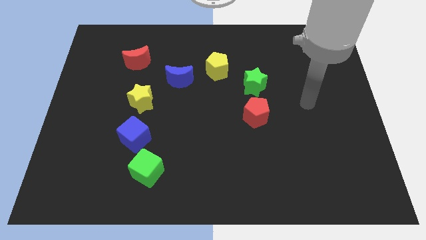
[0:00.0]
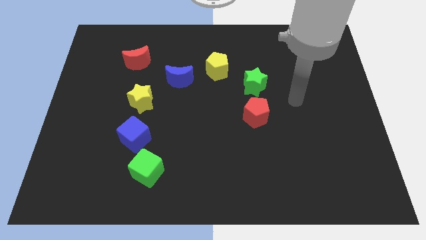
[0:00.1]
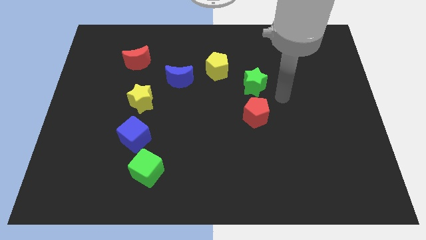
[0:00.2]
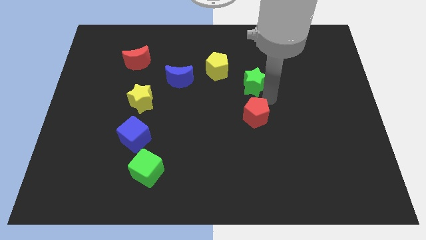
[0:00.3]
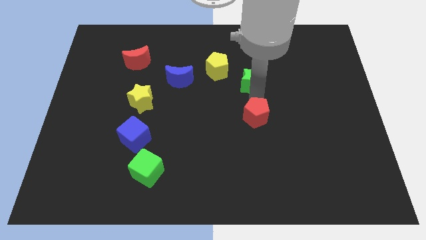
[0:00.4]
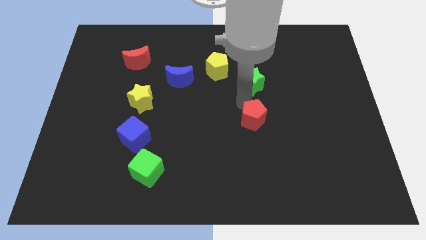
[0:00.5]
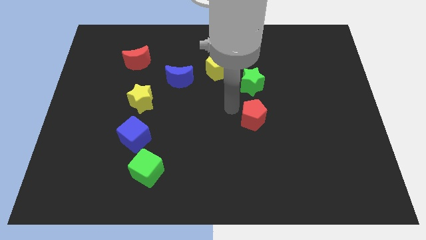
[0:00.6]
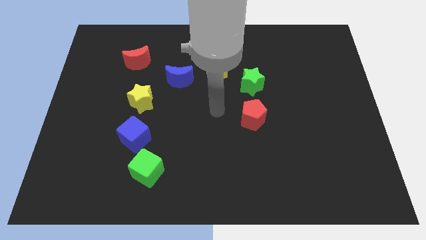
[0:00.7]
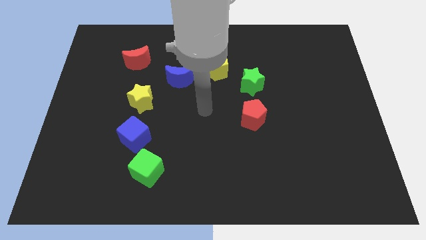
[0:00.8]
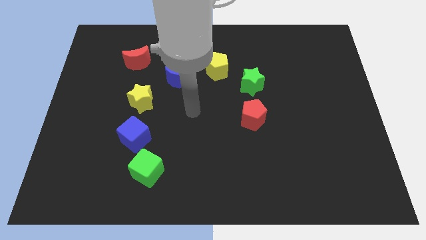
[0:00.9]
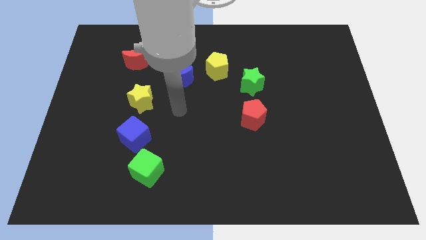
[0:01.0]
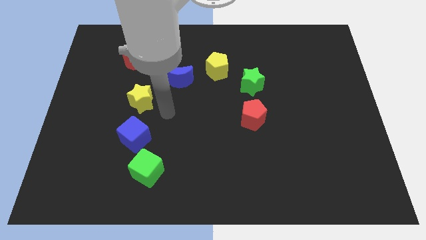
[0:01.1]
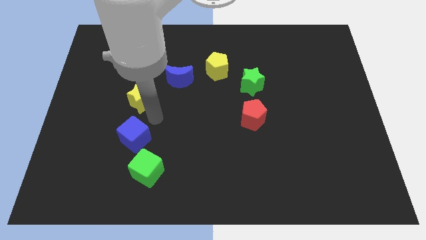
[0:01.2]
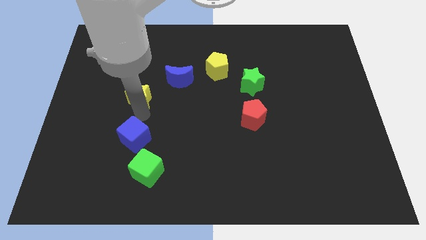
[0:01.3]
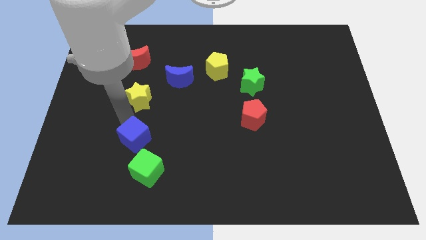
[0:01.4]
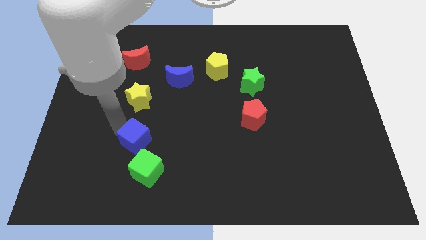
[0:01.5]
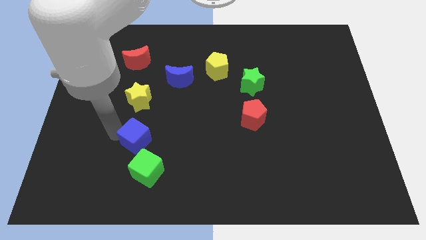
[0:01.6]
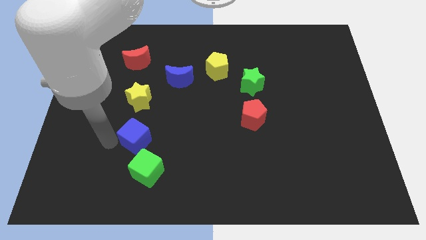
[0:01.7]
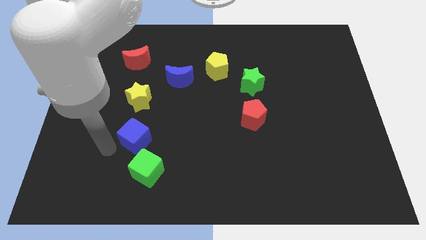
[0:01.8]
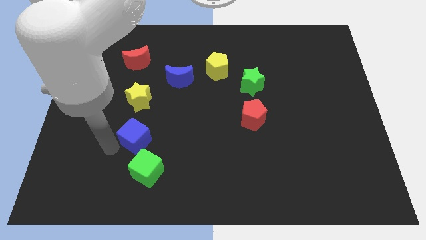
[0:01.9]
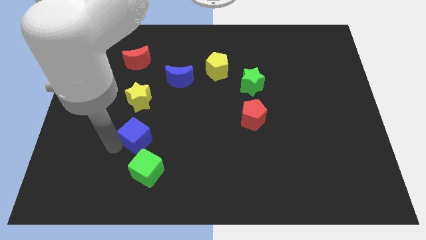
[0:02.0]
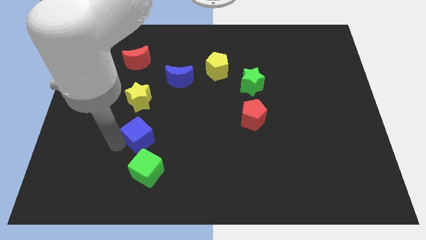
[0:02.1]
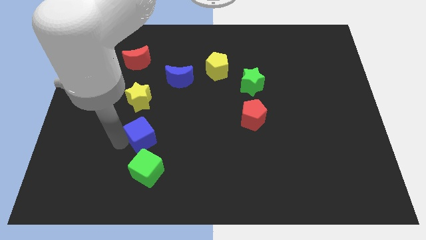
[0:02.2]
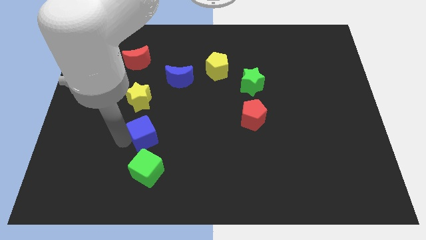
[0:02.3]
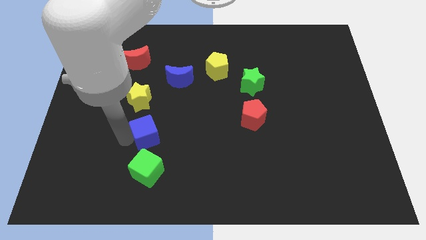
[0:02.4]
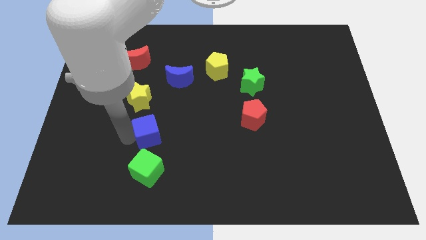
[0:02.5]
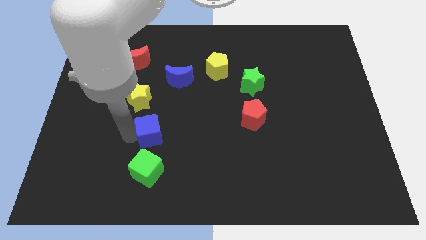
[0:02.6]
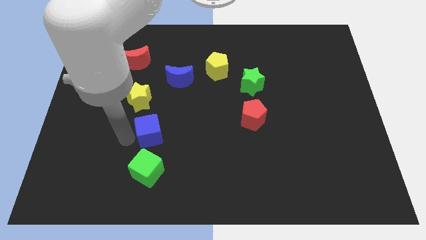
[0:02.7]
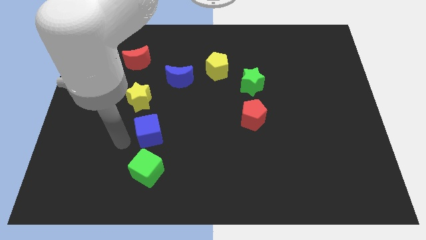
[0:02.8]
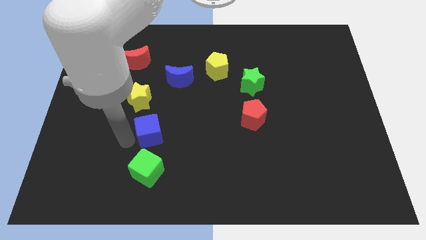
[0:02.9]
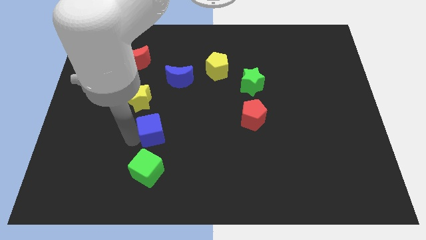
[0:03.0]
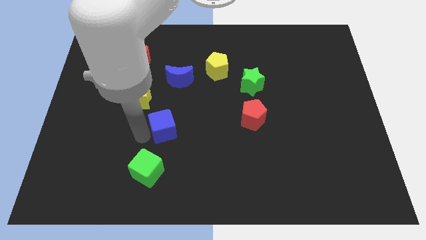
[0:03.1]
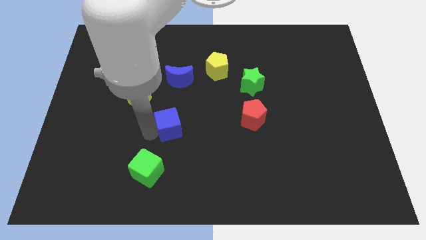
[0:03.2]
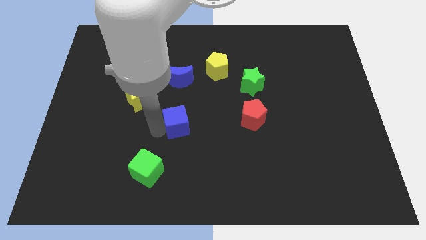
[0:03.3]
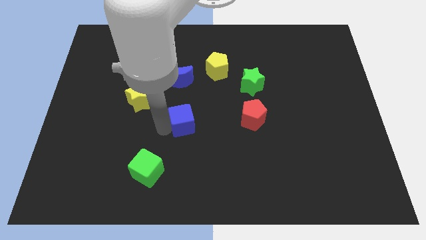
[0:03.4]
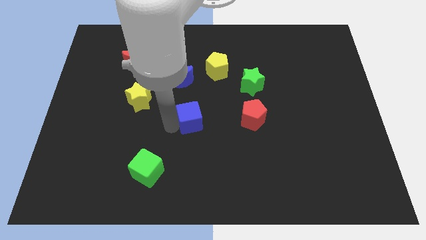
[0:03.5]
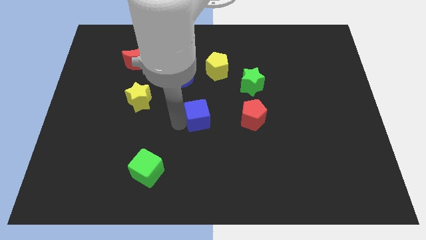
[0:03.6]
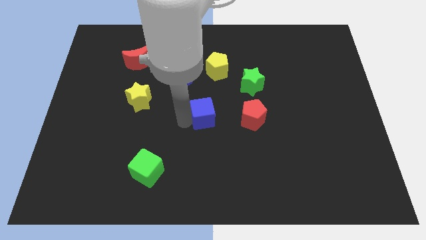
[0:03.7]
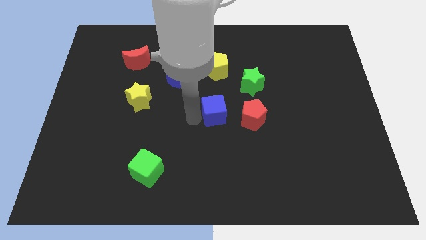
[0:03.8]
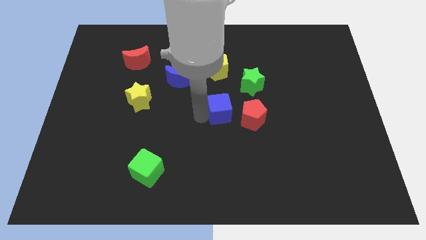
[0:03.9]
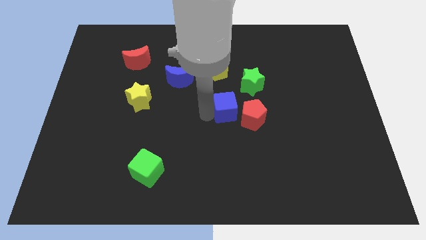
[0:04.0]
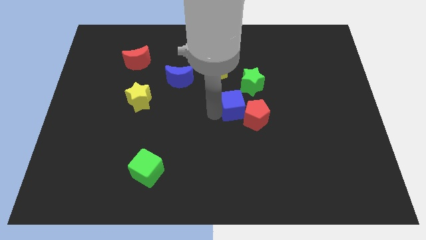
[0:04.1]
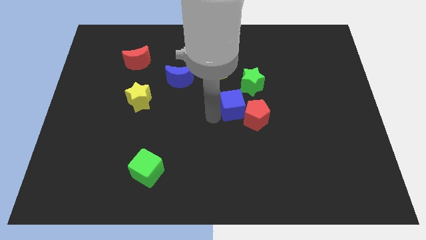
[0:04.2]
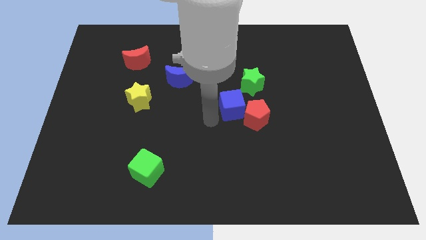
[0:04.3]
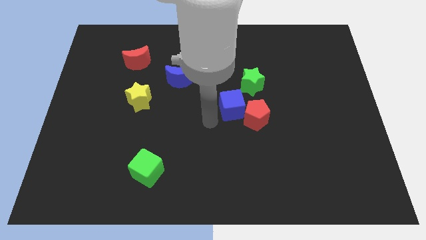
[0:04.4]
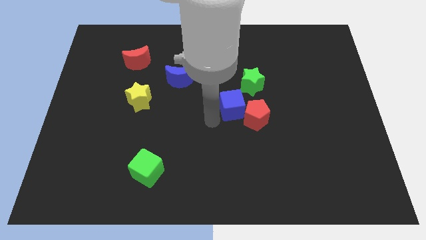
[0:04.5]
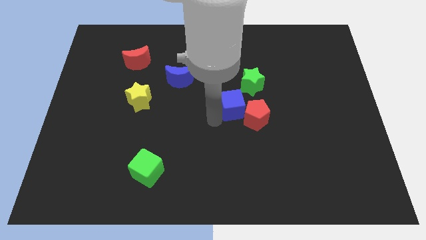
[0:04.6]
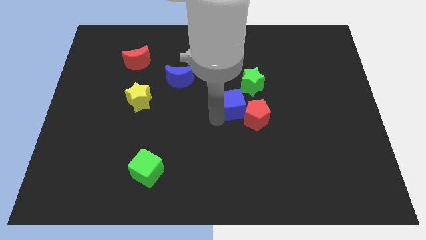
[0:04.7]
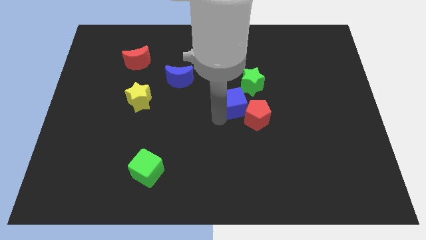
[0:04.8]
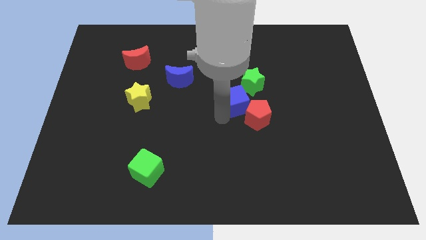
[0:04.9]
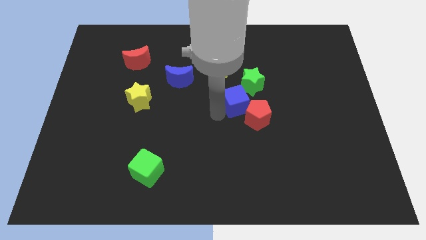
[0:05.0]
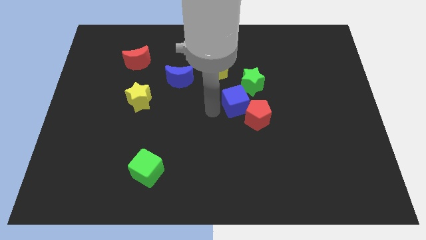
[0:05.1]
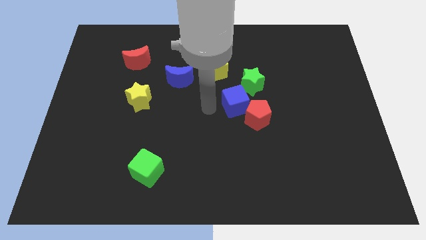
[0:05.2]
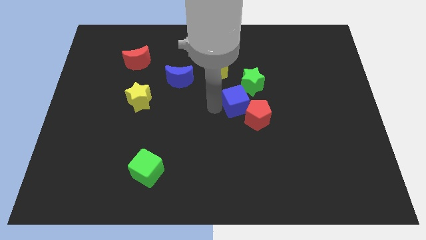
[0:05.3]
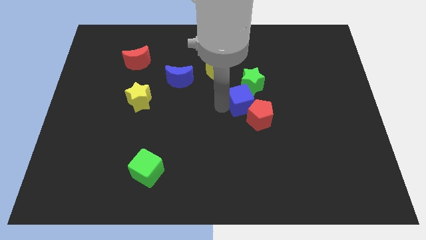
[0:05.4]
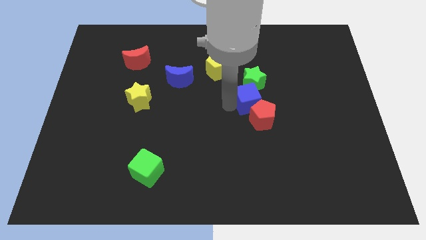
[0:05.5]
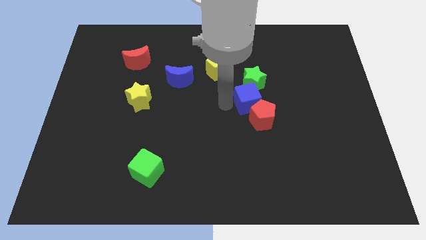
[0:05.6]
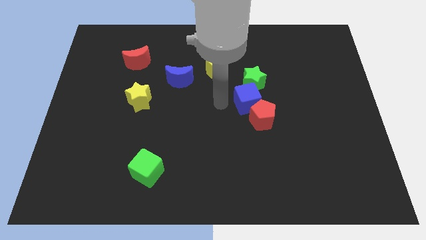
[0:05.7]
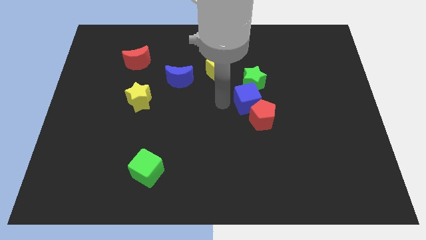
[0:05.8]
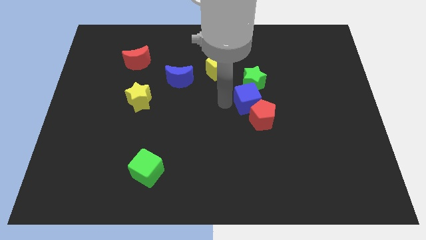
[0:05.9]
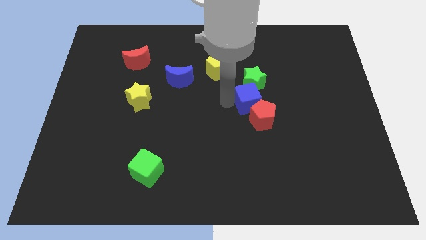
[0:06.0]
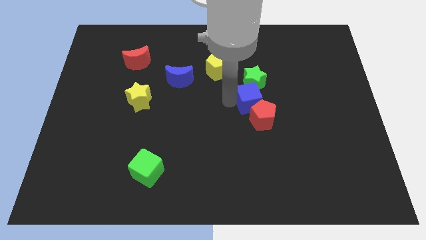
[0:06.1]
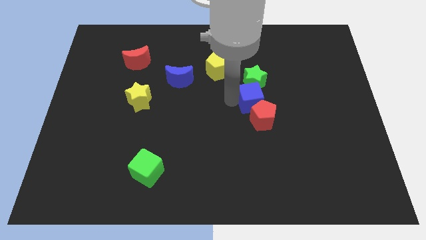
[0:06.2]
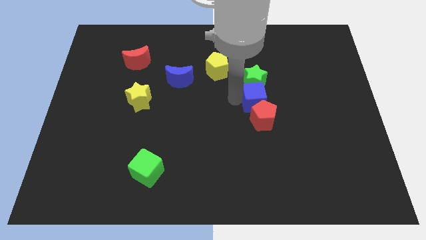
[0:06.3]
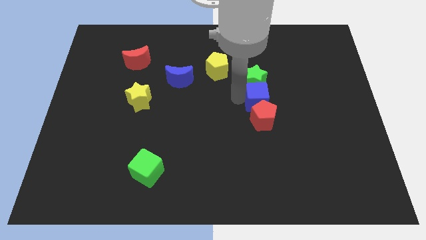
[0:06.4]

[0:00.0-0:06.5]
push the blue cube to the top right of the red pentagon

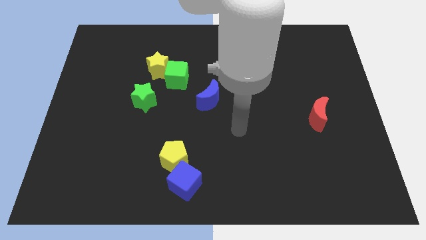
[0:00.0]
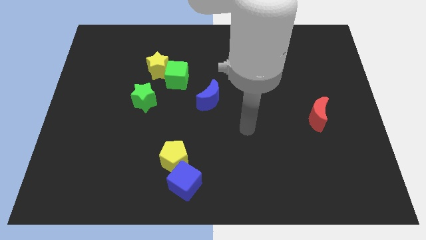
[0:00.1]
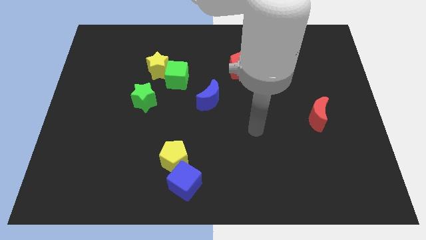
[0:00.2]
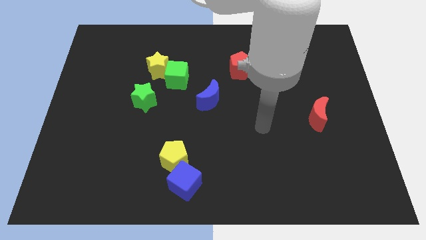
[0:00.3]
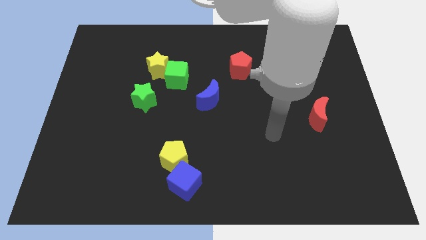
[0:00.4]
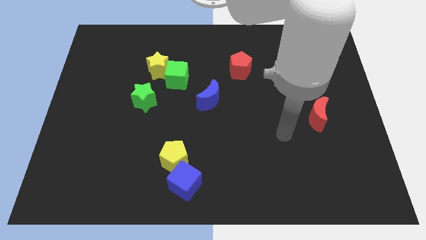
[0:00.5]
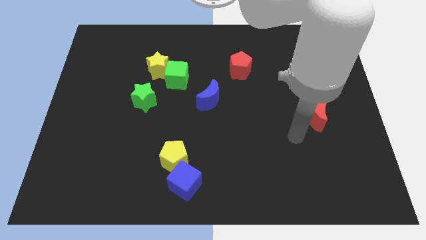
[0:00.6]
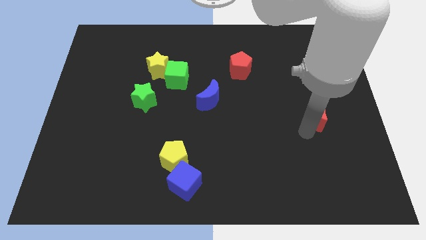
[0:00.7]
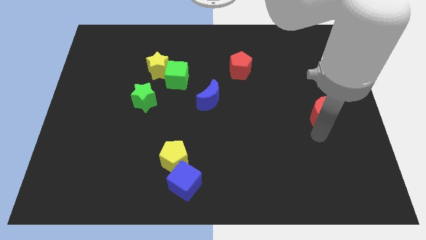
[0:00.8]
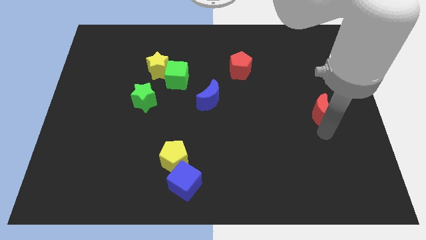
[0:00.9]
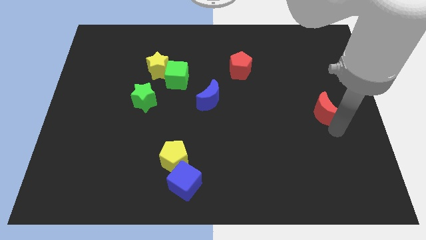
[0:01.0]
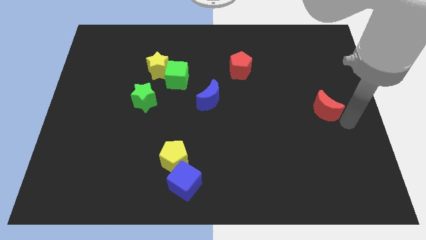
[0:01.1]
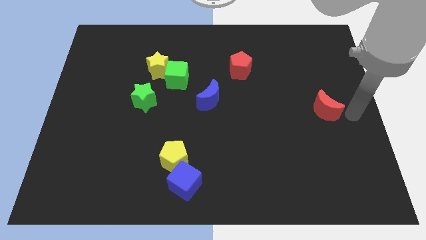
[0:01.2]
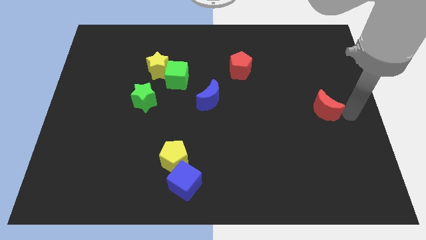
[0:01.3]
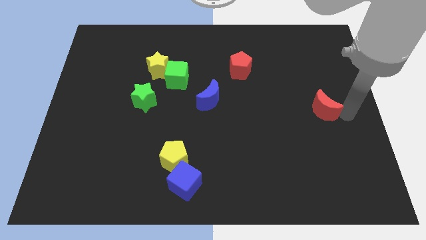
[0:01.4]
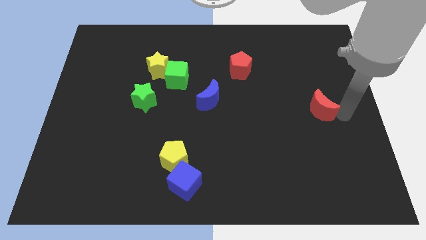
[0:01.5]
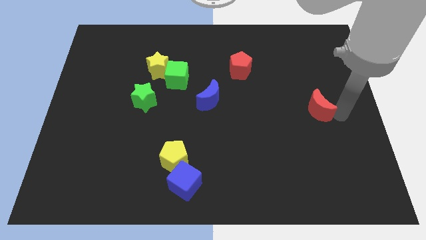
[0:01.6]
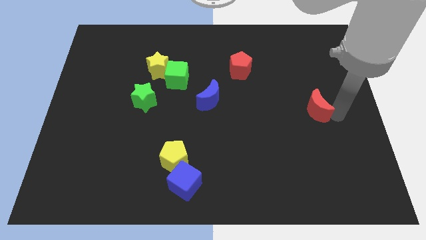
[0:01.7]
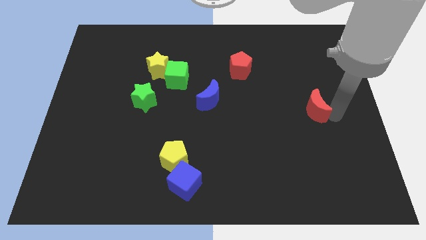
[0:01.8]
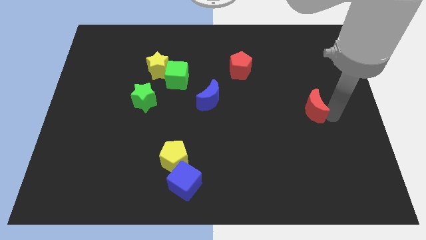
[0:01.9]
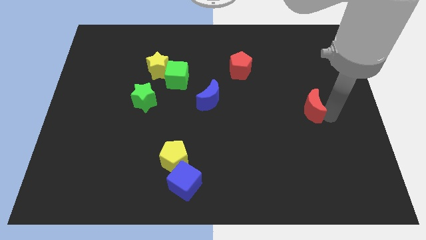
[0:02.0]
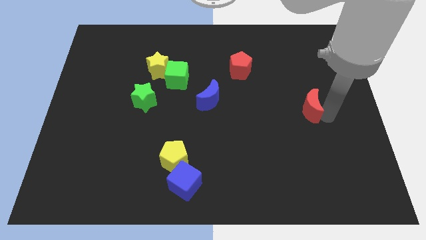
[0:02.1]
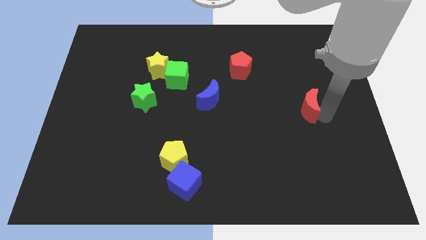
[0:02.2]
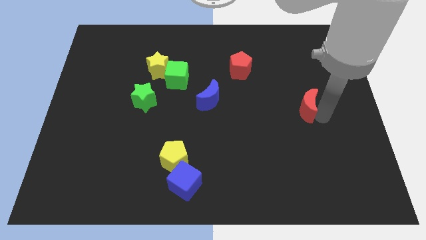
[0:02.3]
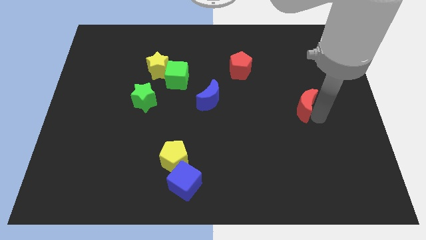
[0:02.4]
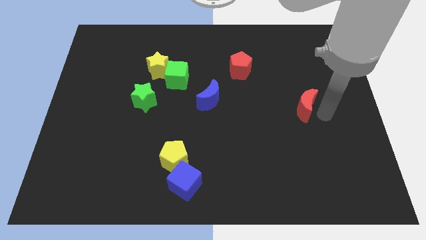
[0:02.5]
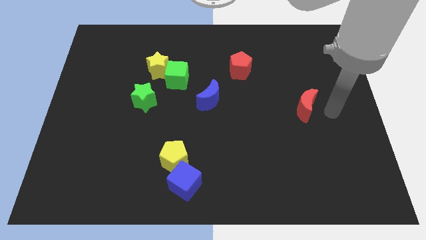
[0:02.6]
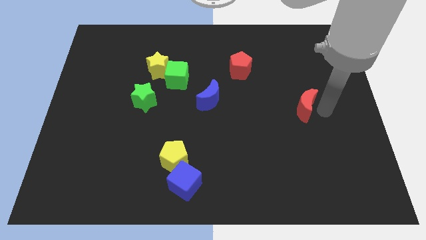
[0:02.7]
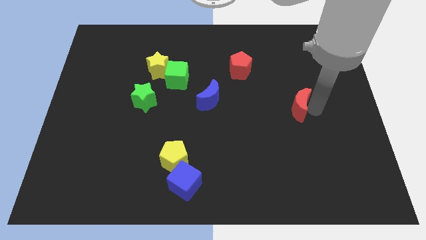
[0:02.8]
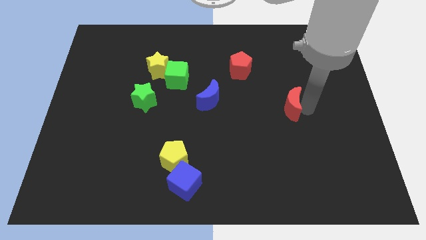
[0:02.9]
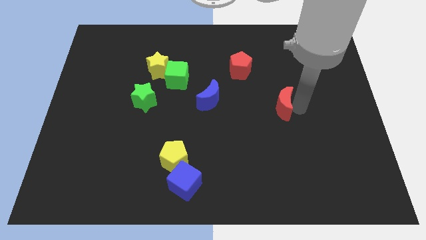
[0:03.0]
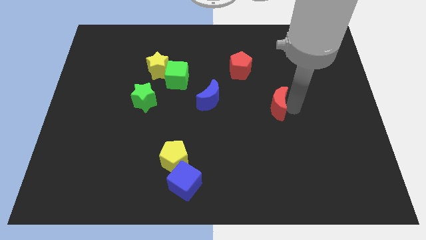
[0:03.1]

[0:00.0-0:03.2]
push the red moon to the right side of the blue moon
